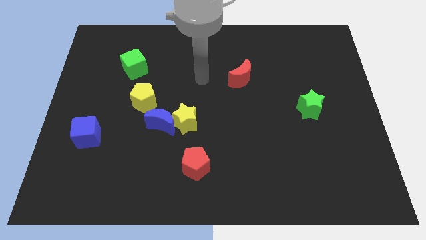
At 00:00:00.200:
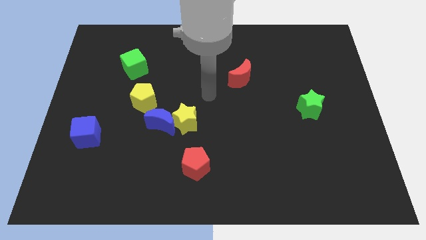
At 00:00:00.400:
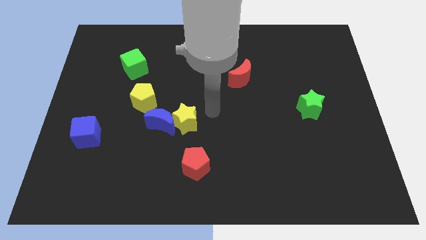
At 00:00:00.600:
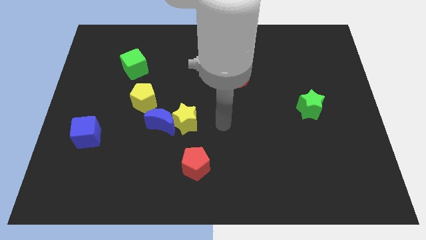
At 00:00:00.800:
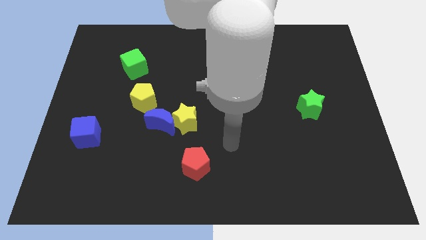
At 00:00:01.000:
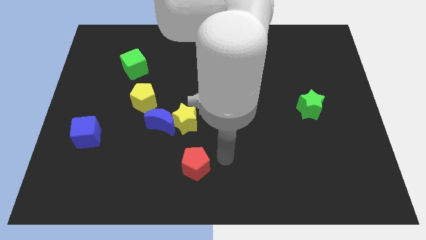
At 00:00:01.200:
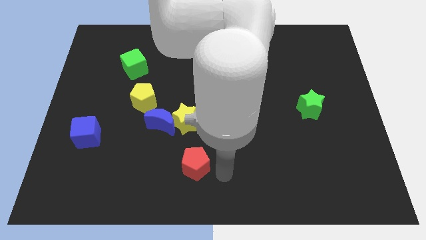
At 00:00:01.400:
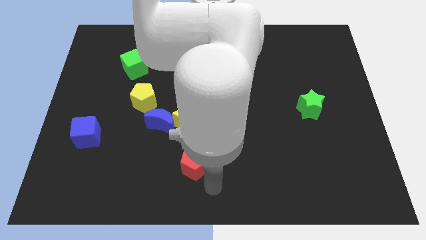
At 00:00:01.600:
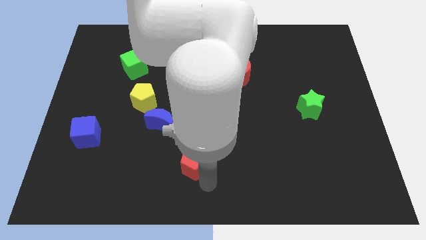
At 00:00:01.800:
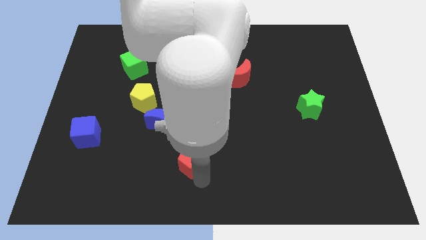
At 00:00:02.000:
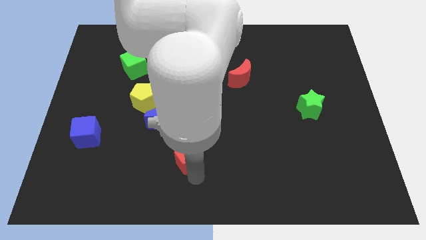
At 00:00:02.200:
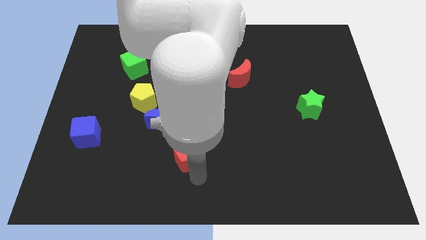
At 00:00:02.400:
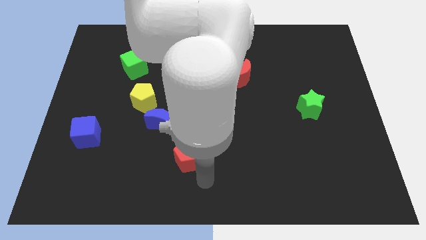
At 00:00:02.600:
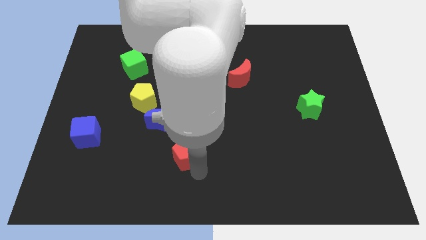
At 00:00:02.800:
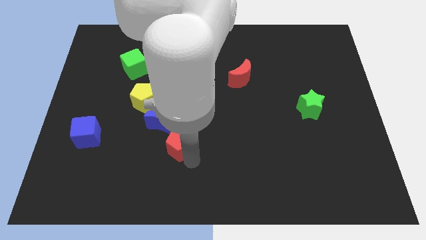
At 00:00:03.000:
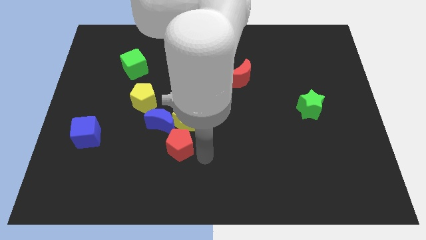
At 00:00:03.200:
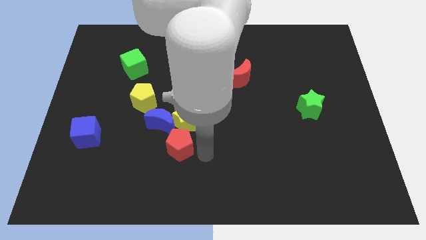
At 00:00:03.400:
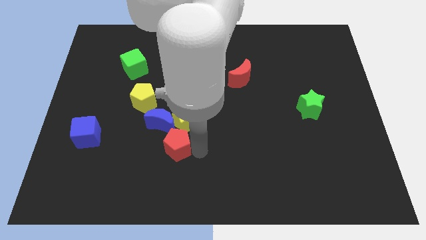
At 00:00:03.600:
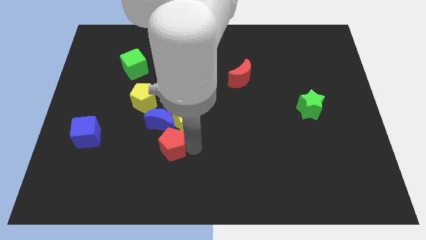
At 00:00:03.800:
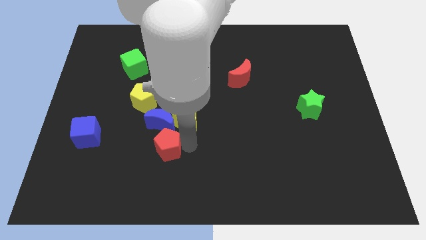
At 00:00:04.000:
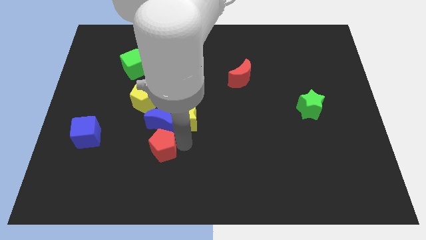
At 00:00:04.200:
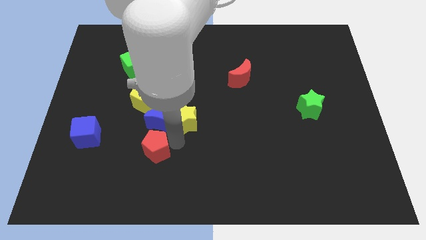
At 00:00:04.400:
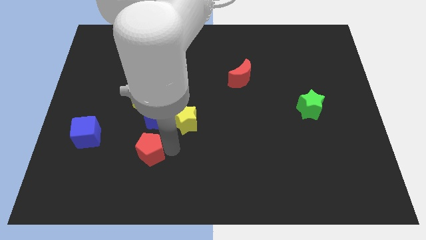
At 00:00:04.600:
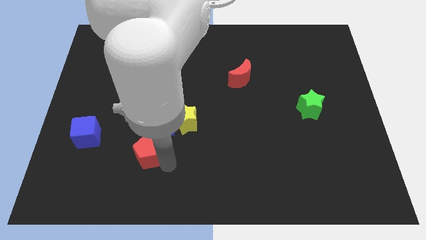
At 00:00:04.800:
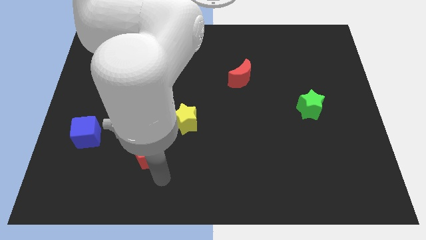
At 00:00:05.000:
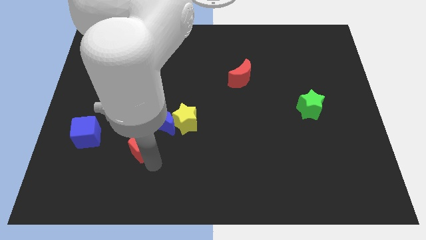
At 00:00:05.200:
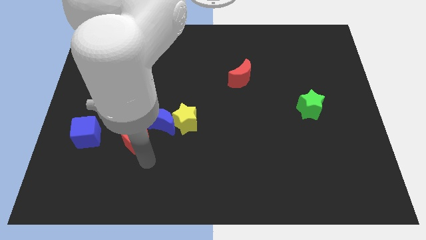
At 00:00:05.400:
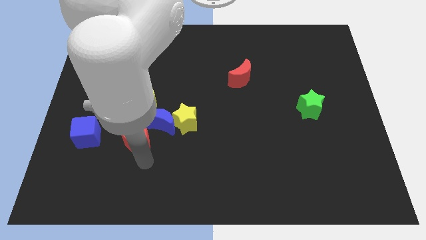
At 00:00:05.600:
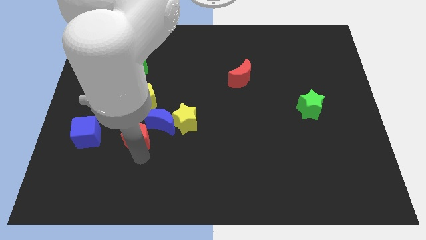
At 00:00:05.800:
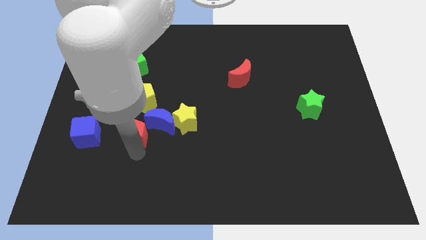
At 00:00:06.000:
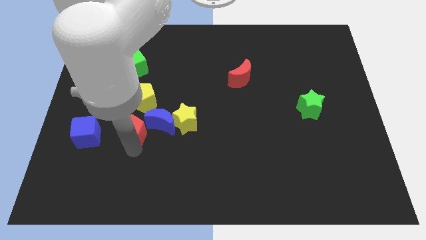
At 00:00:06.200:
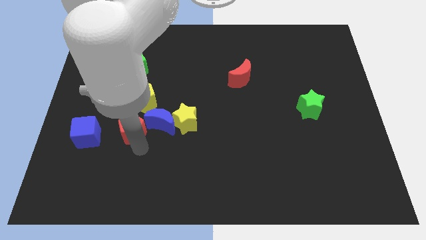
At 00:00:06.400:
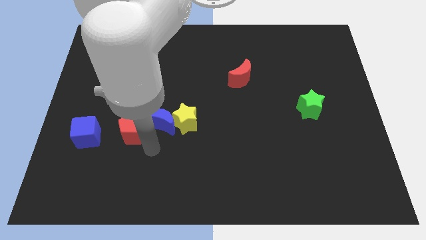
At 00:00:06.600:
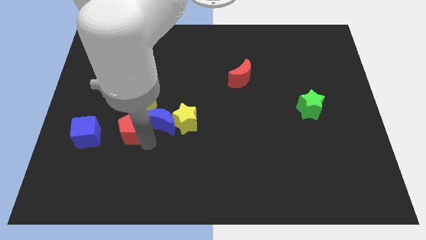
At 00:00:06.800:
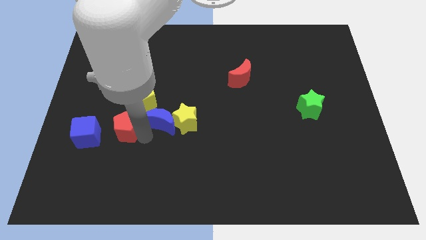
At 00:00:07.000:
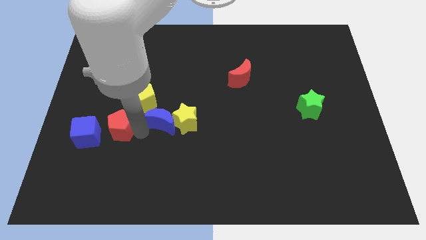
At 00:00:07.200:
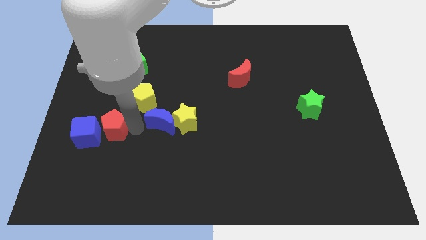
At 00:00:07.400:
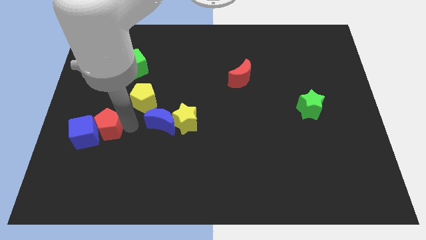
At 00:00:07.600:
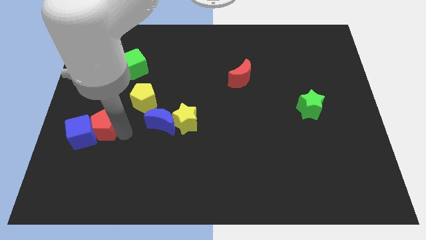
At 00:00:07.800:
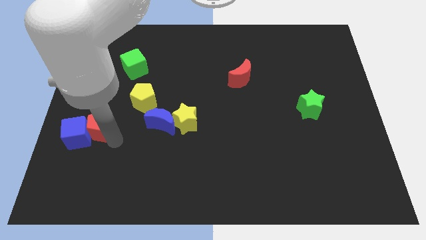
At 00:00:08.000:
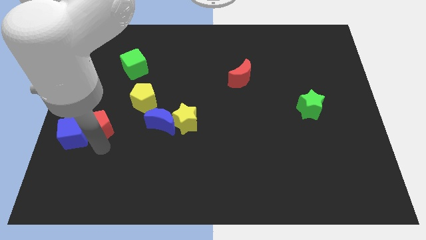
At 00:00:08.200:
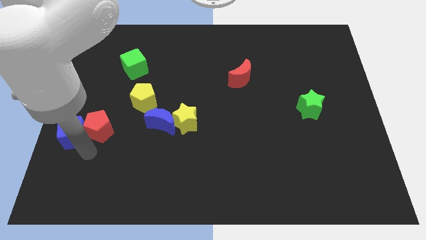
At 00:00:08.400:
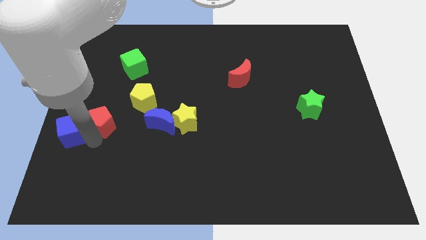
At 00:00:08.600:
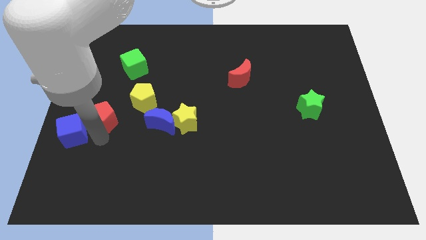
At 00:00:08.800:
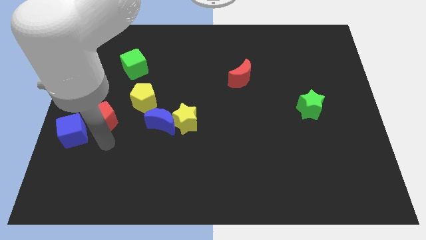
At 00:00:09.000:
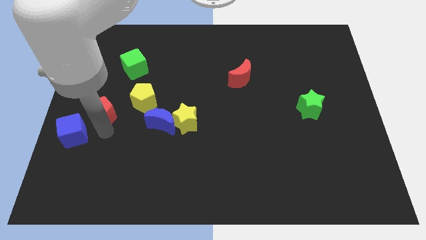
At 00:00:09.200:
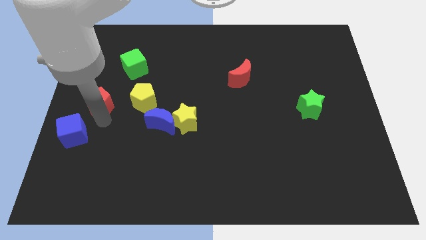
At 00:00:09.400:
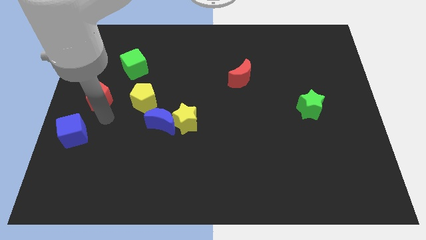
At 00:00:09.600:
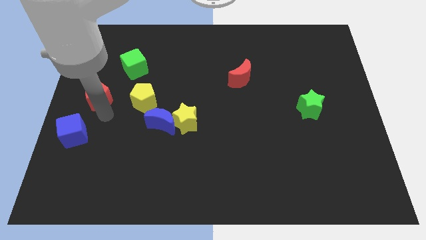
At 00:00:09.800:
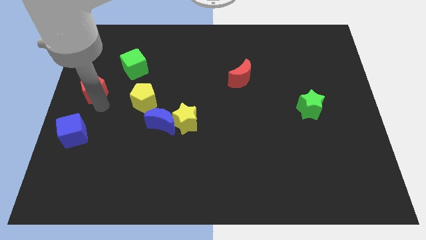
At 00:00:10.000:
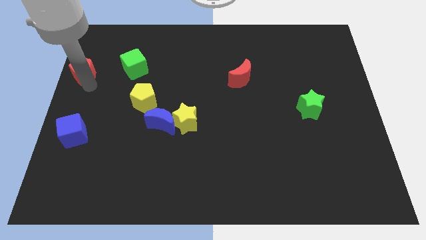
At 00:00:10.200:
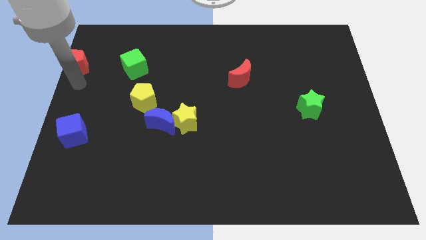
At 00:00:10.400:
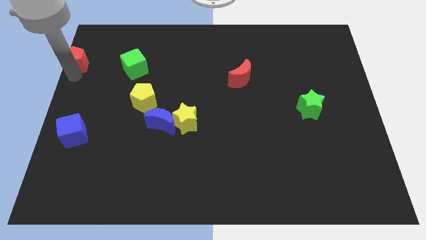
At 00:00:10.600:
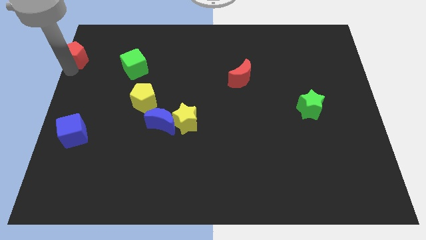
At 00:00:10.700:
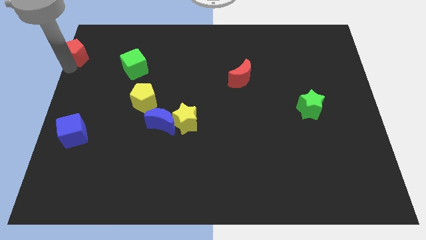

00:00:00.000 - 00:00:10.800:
put the red pentagon to the top left of the board
